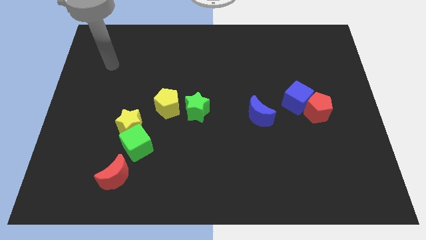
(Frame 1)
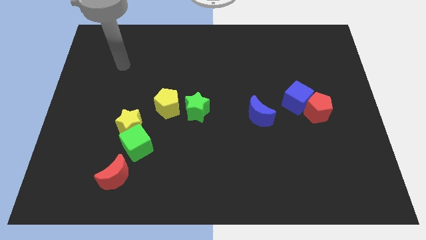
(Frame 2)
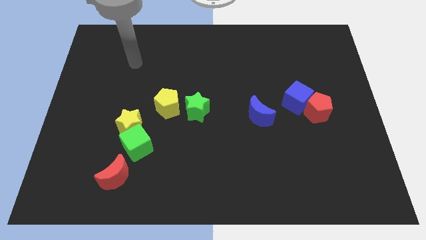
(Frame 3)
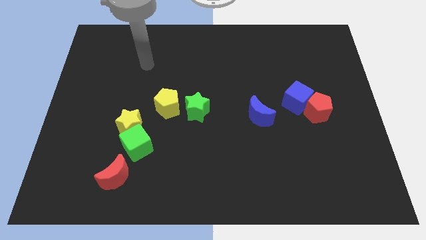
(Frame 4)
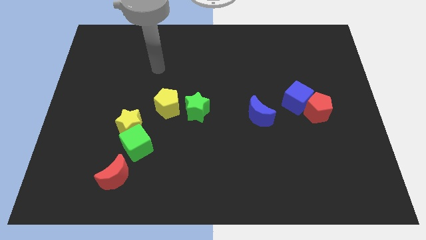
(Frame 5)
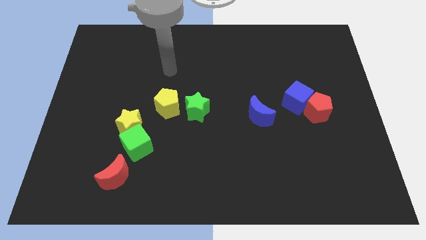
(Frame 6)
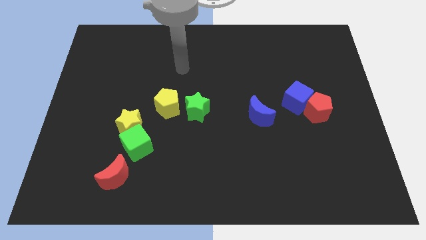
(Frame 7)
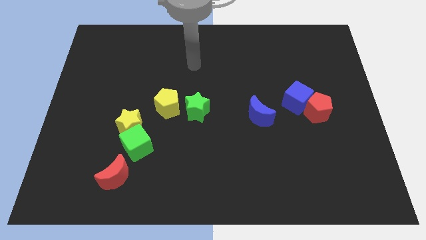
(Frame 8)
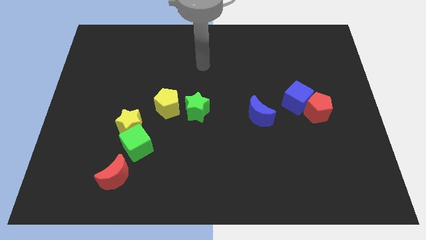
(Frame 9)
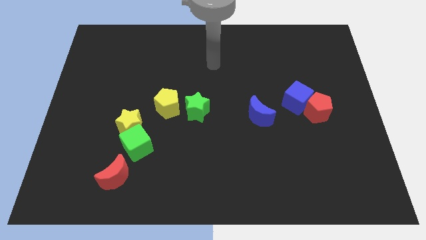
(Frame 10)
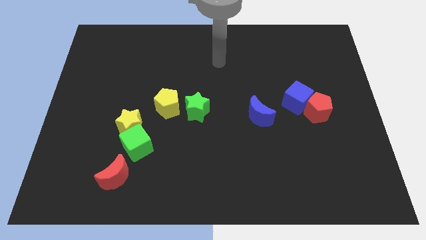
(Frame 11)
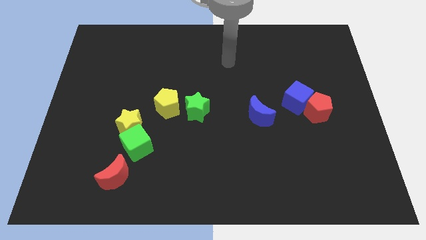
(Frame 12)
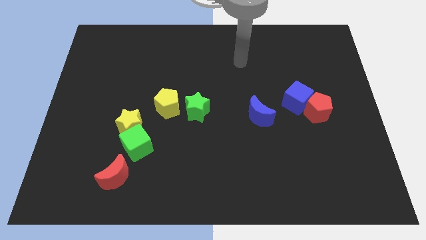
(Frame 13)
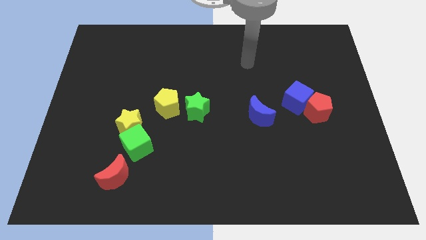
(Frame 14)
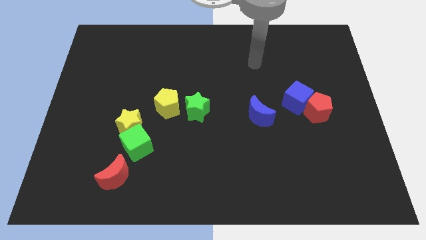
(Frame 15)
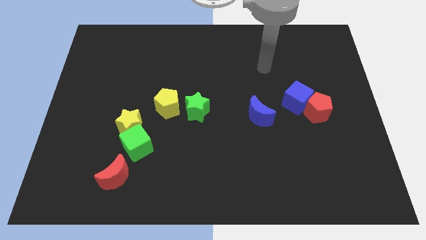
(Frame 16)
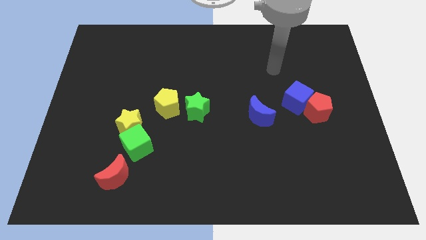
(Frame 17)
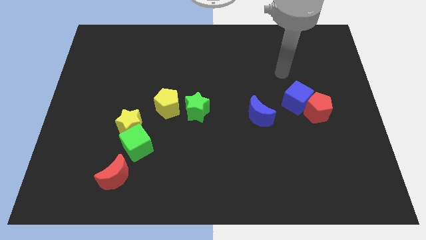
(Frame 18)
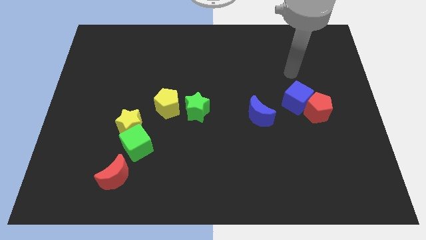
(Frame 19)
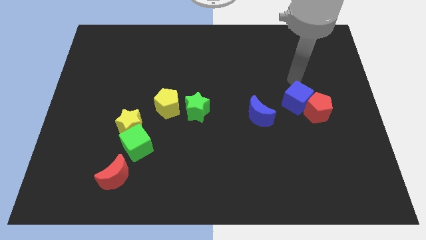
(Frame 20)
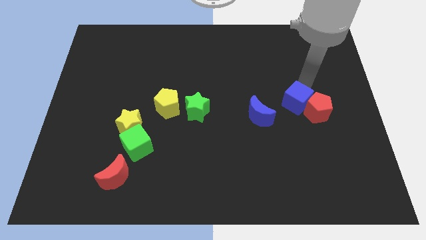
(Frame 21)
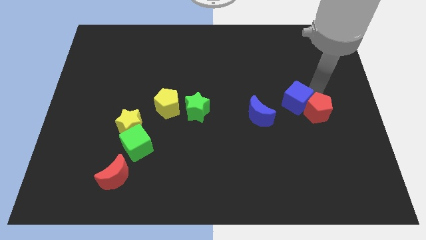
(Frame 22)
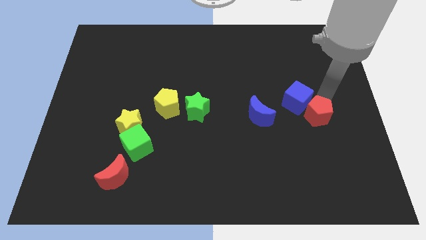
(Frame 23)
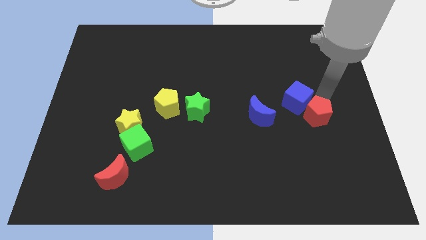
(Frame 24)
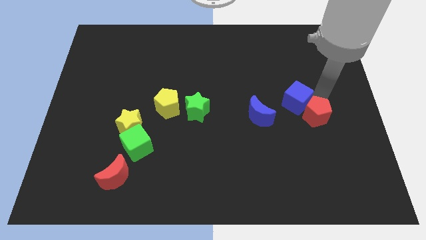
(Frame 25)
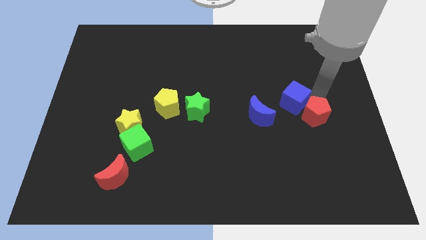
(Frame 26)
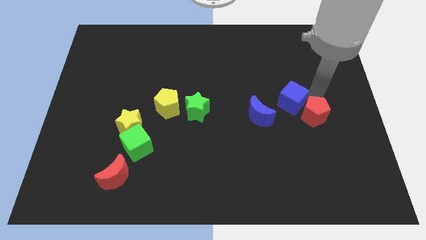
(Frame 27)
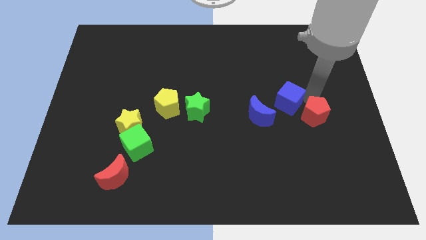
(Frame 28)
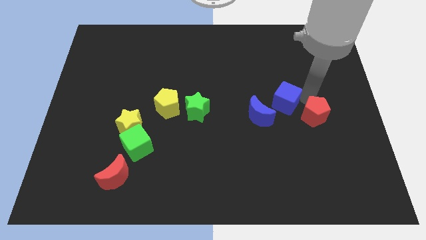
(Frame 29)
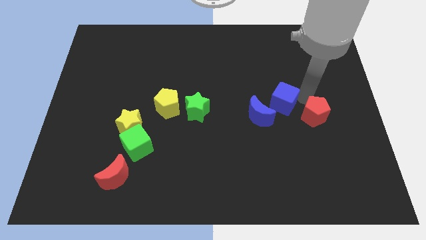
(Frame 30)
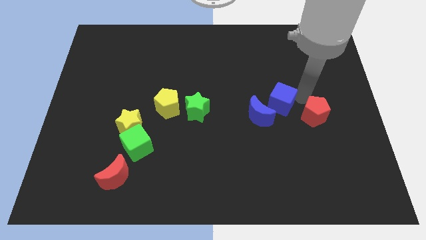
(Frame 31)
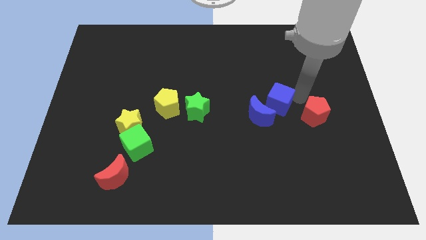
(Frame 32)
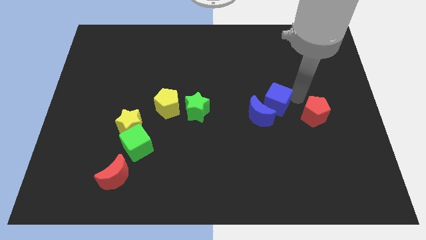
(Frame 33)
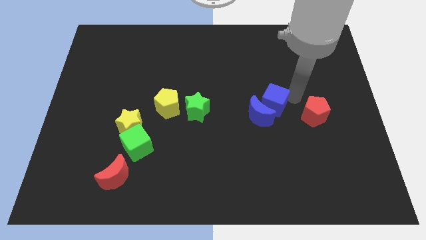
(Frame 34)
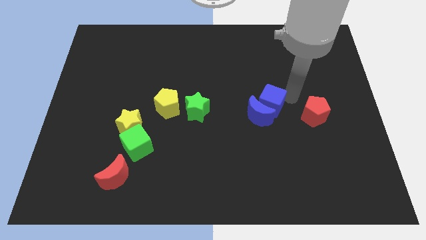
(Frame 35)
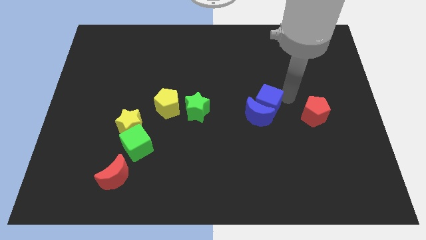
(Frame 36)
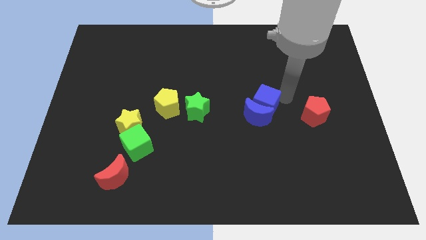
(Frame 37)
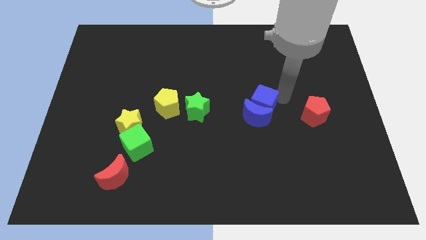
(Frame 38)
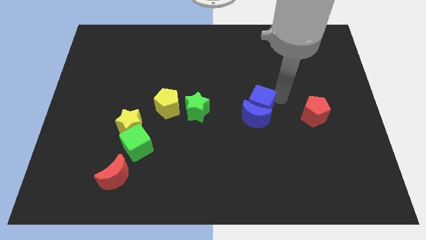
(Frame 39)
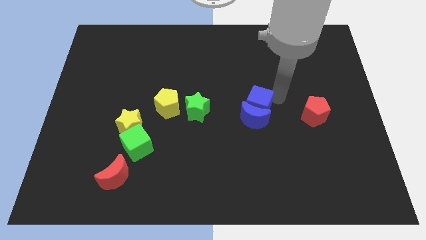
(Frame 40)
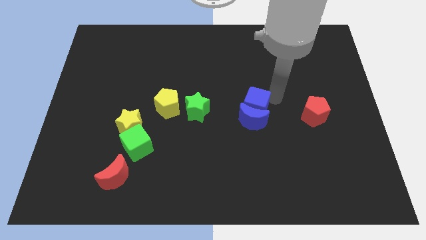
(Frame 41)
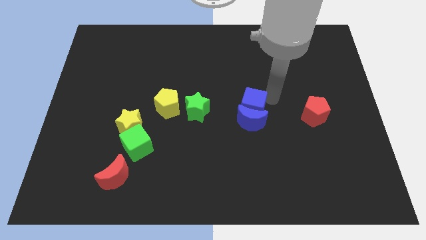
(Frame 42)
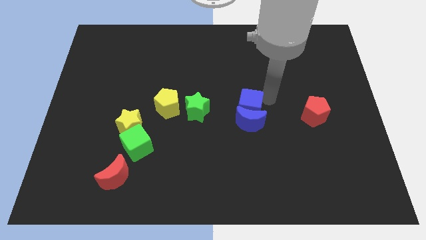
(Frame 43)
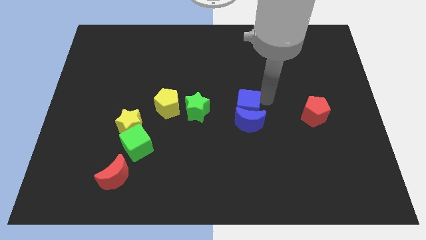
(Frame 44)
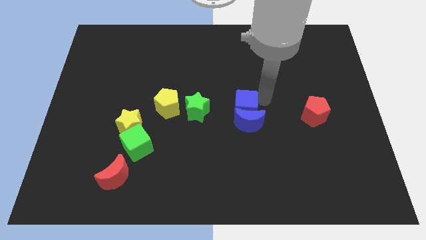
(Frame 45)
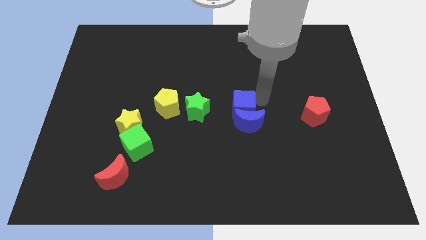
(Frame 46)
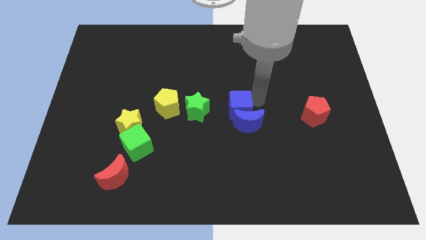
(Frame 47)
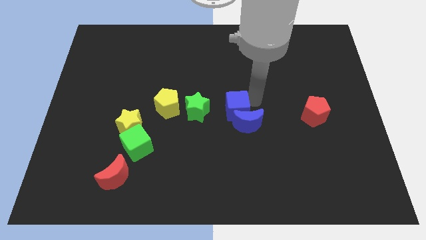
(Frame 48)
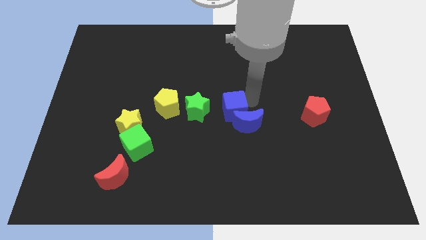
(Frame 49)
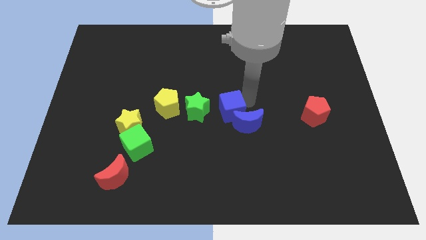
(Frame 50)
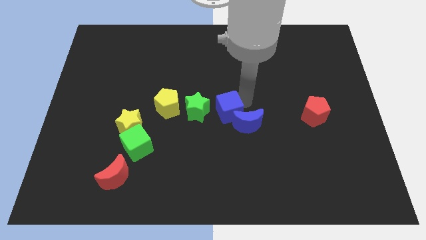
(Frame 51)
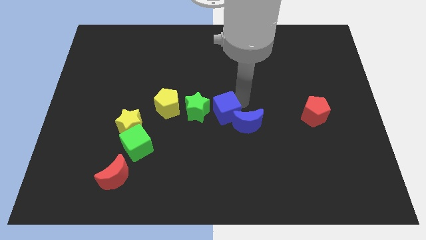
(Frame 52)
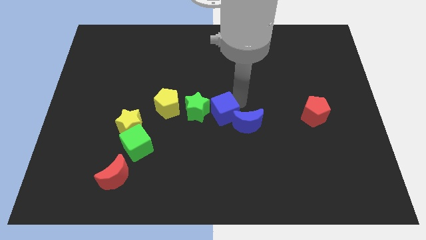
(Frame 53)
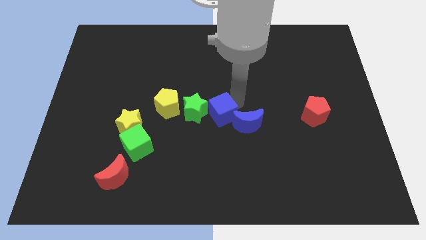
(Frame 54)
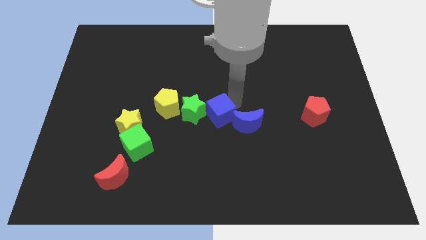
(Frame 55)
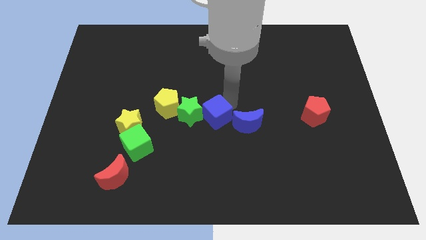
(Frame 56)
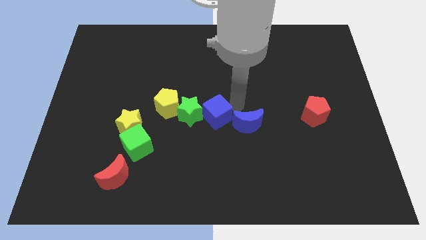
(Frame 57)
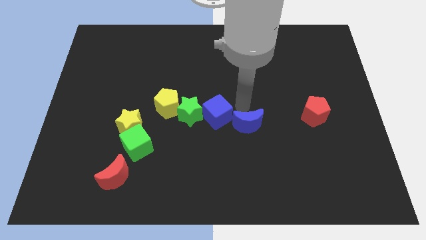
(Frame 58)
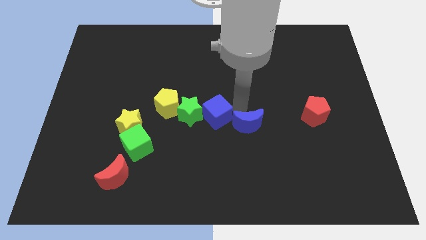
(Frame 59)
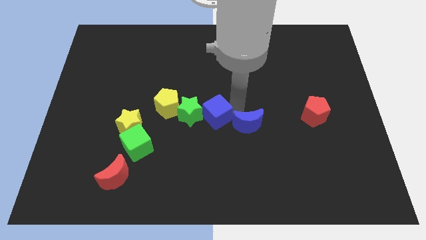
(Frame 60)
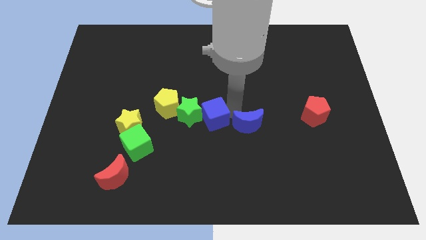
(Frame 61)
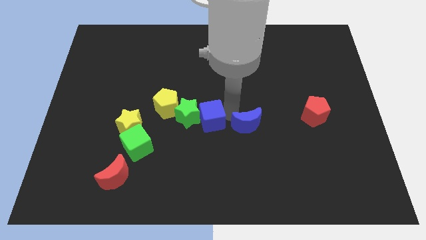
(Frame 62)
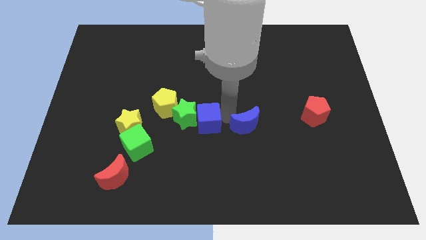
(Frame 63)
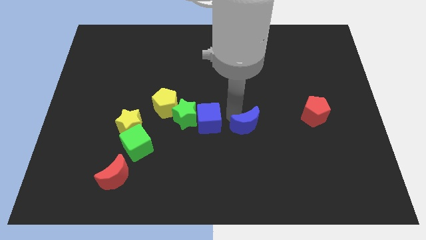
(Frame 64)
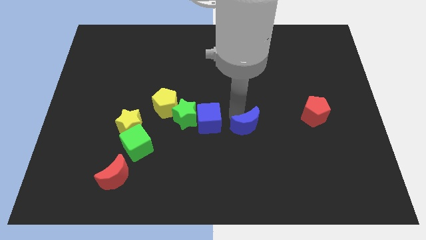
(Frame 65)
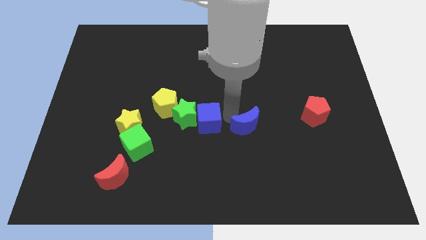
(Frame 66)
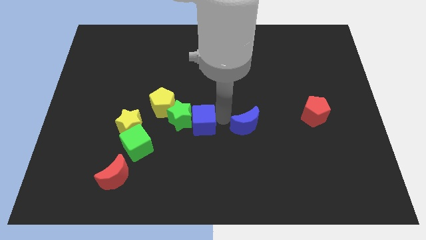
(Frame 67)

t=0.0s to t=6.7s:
put the blue cube to the right of the yellow star
